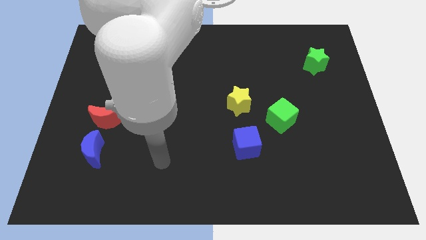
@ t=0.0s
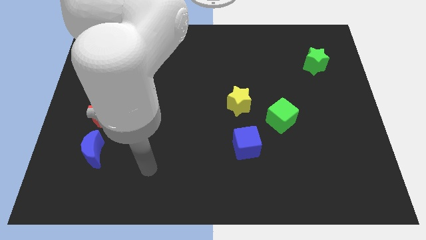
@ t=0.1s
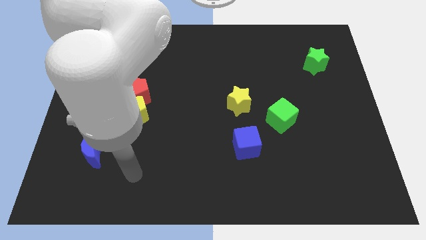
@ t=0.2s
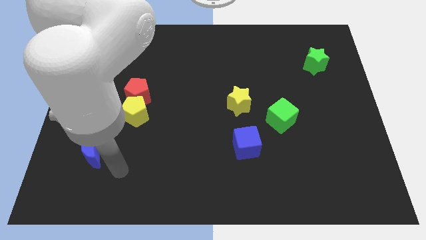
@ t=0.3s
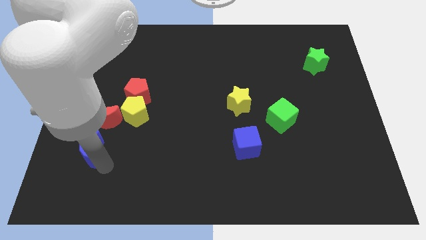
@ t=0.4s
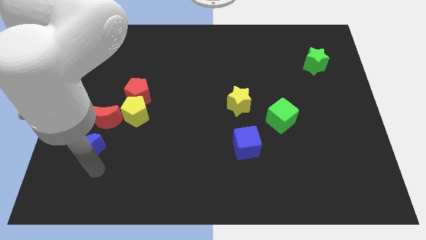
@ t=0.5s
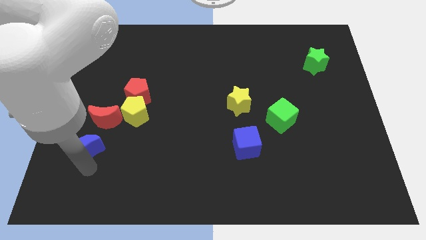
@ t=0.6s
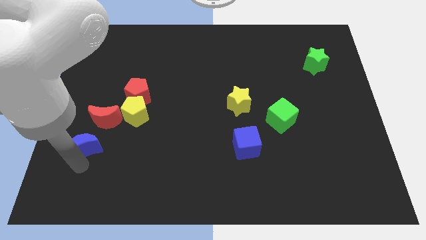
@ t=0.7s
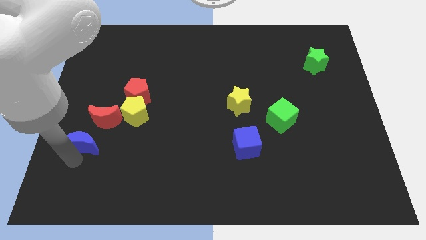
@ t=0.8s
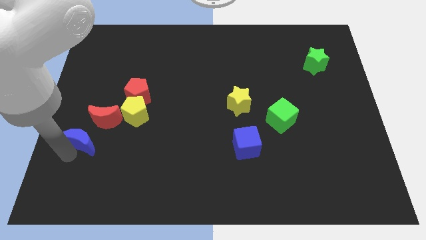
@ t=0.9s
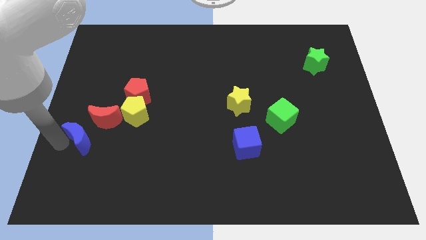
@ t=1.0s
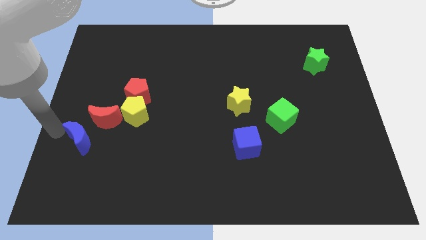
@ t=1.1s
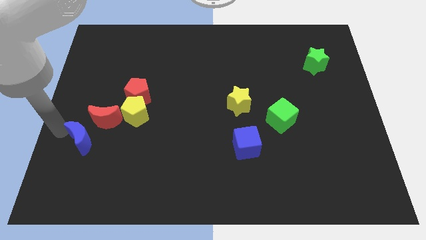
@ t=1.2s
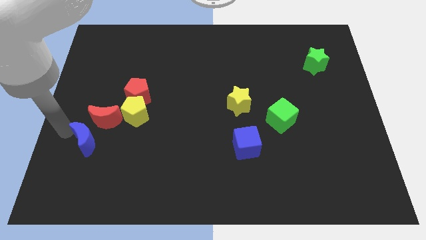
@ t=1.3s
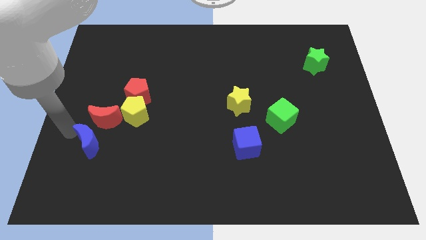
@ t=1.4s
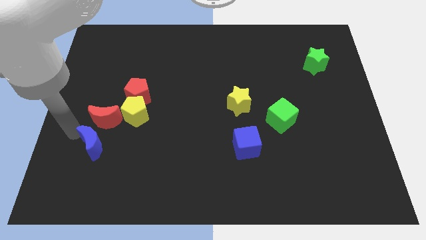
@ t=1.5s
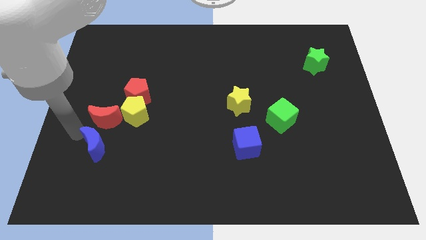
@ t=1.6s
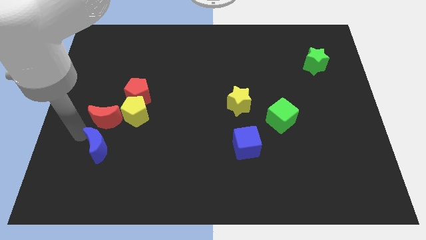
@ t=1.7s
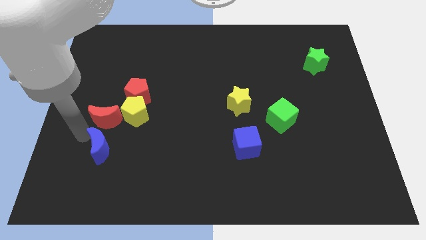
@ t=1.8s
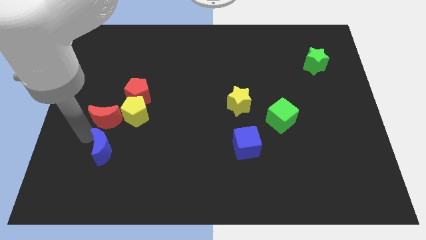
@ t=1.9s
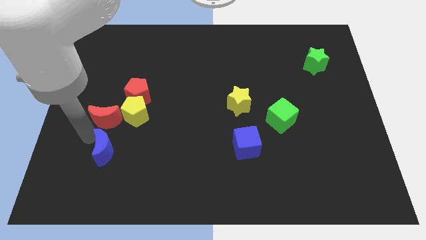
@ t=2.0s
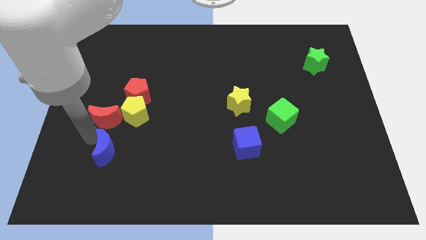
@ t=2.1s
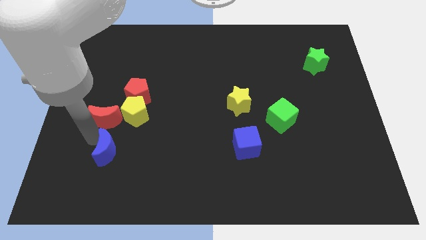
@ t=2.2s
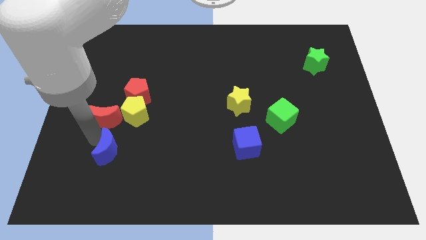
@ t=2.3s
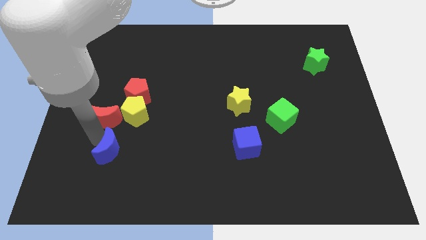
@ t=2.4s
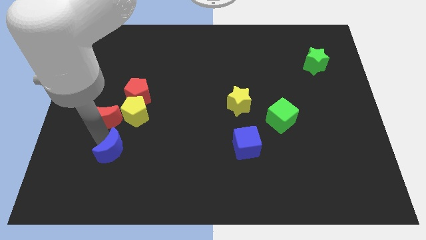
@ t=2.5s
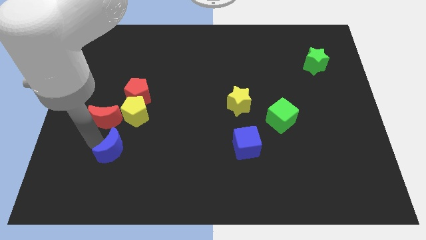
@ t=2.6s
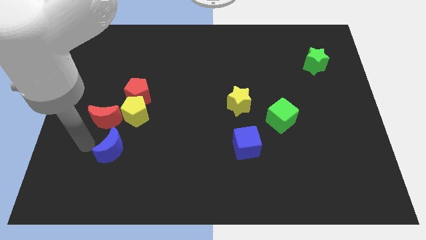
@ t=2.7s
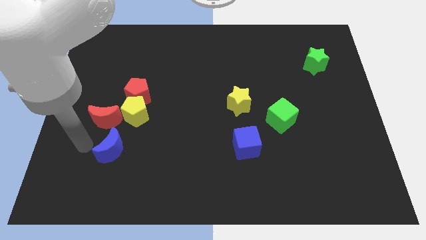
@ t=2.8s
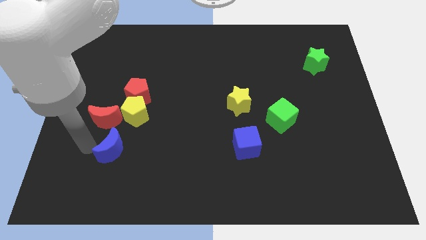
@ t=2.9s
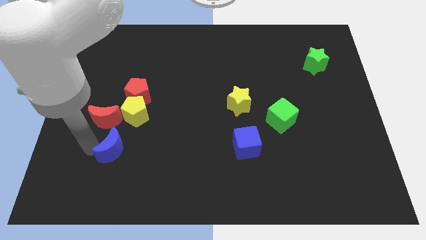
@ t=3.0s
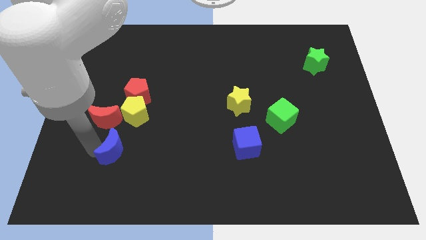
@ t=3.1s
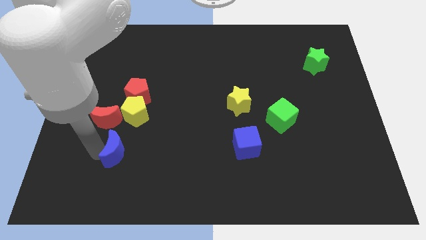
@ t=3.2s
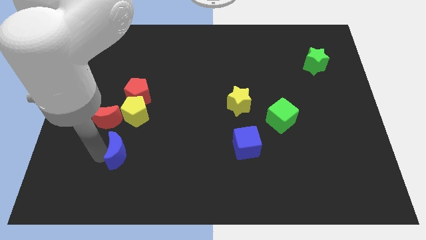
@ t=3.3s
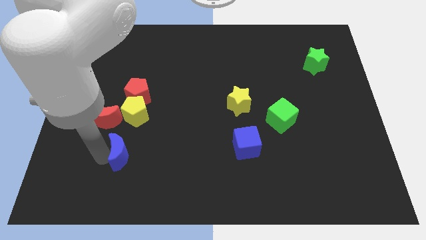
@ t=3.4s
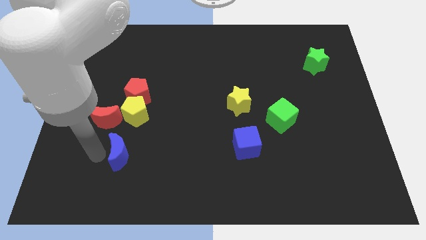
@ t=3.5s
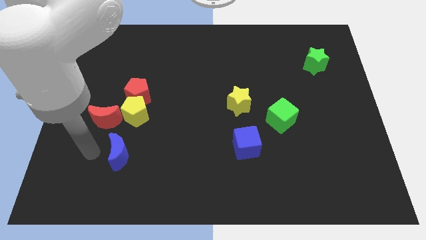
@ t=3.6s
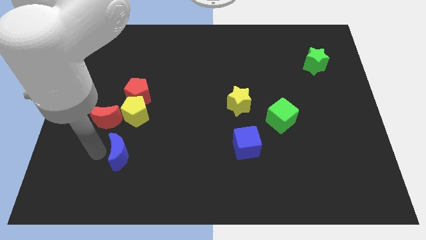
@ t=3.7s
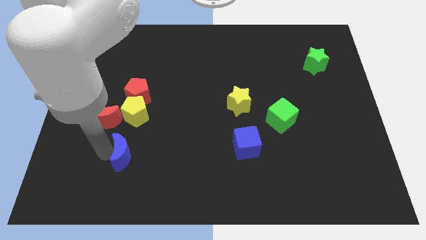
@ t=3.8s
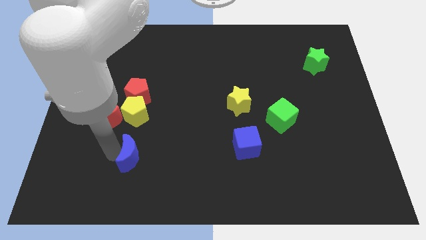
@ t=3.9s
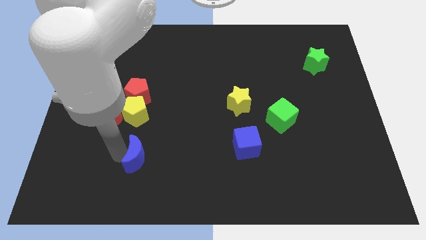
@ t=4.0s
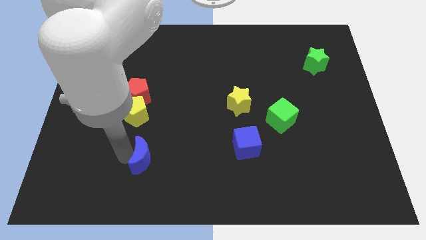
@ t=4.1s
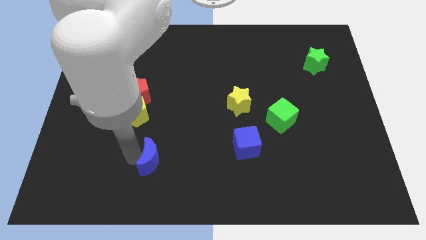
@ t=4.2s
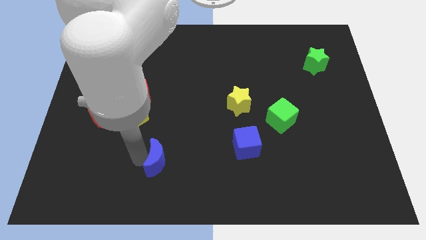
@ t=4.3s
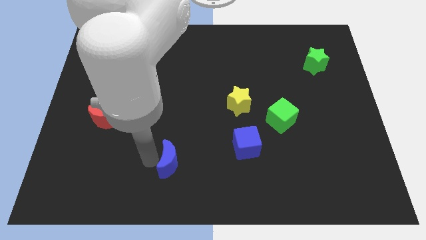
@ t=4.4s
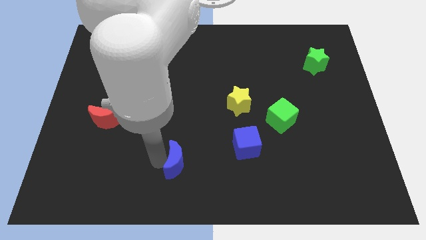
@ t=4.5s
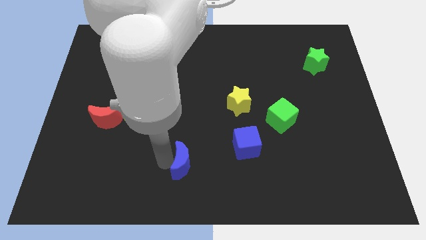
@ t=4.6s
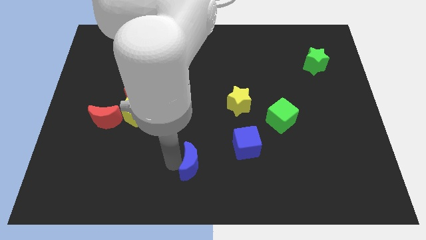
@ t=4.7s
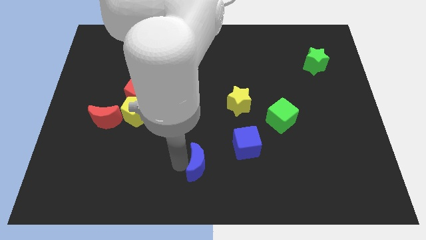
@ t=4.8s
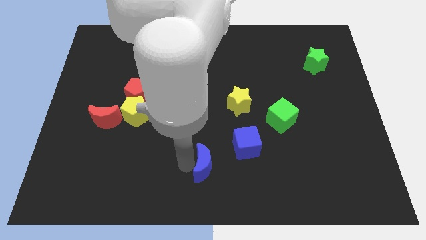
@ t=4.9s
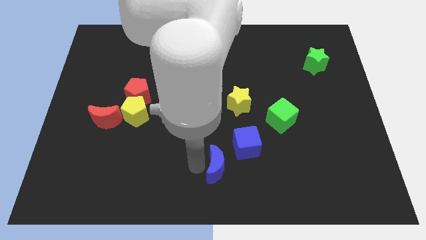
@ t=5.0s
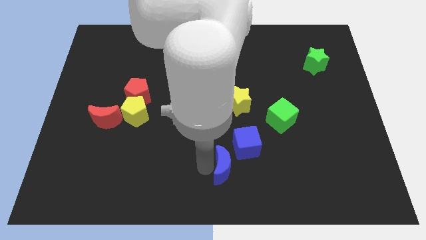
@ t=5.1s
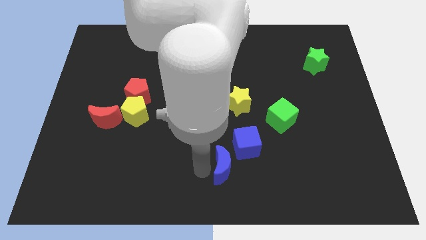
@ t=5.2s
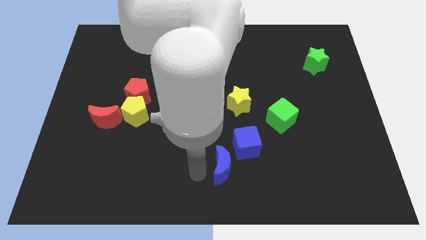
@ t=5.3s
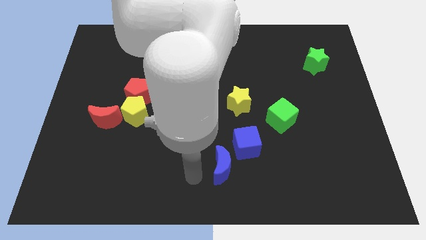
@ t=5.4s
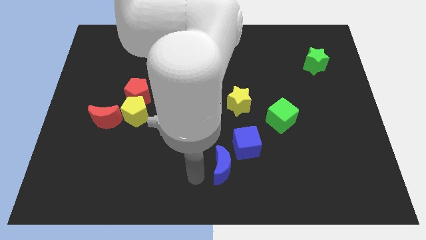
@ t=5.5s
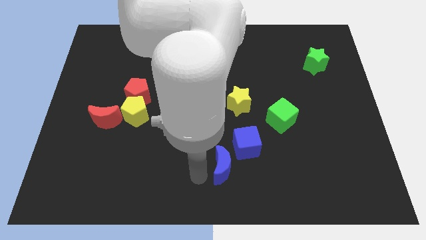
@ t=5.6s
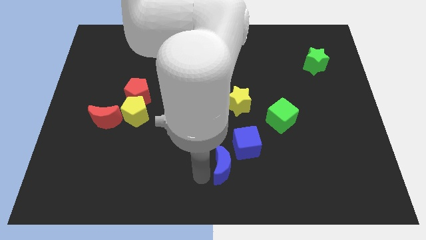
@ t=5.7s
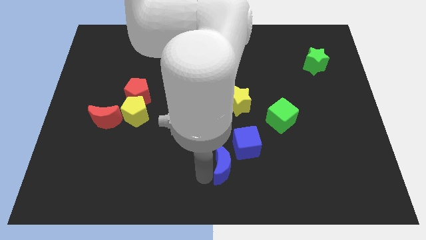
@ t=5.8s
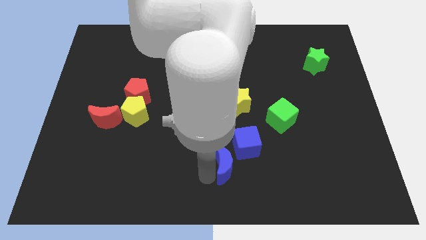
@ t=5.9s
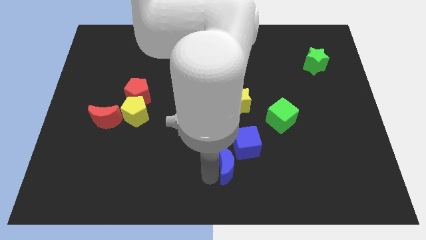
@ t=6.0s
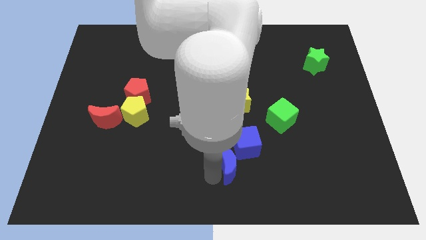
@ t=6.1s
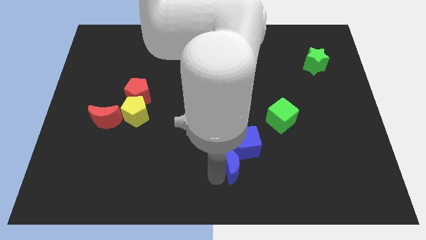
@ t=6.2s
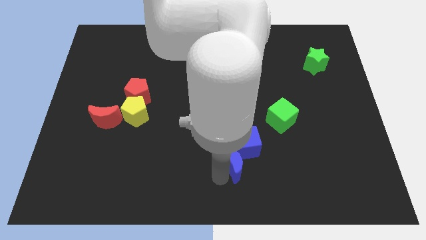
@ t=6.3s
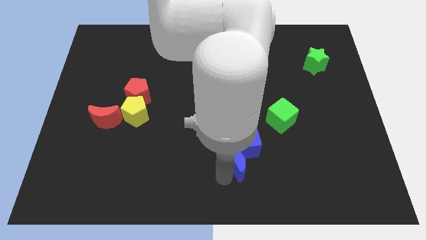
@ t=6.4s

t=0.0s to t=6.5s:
slide the blue moon to the bottom side of the yellow star

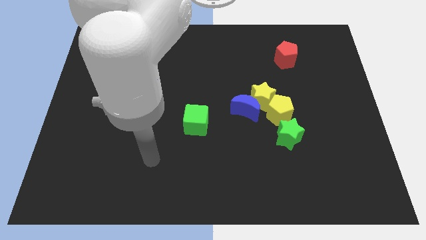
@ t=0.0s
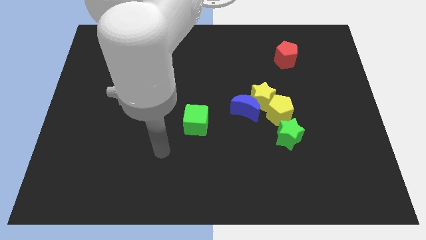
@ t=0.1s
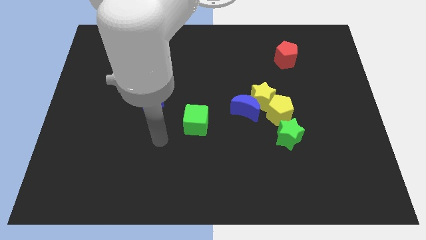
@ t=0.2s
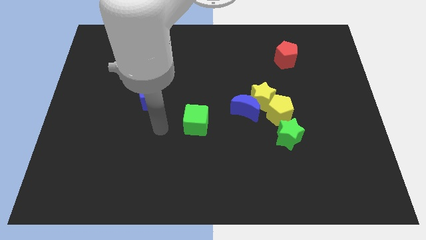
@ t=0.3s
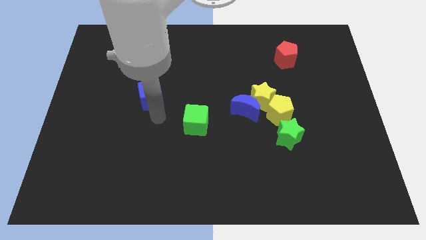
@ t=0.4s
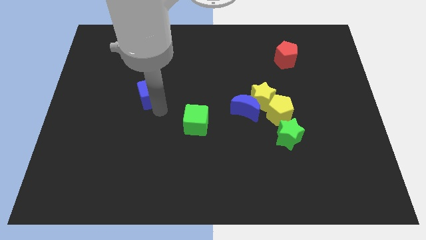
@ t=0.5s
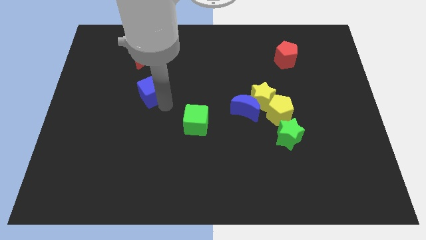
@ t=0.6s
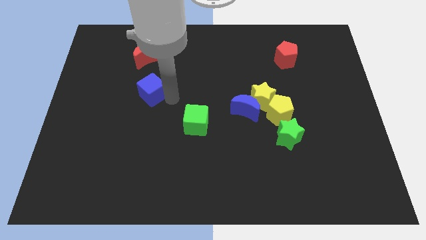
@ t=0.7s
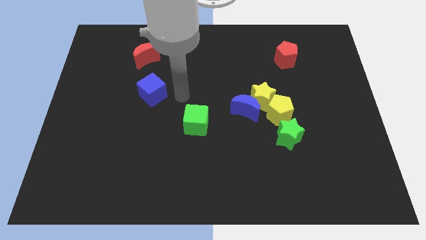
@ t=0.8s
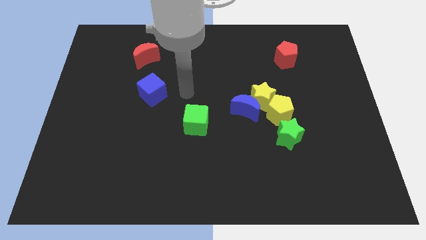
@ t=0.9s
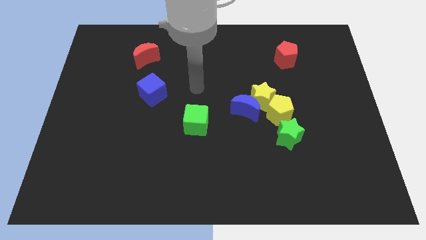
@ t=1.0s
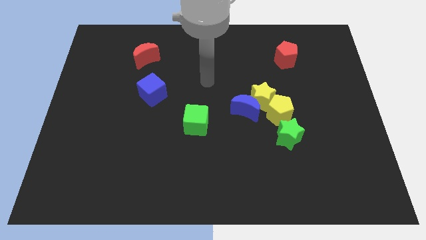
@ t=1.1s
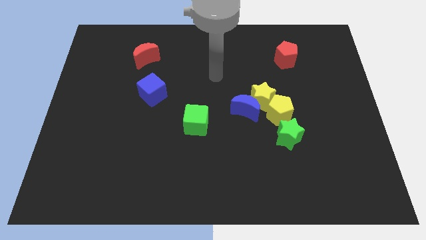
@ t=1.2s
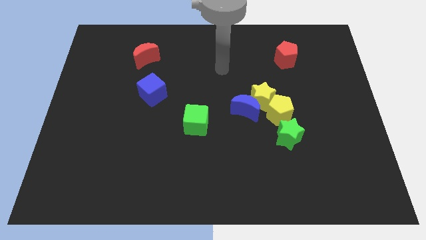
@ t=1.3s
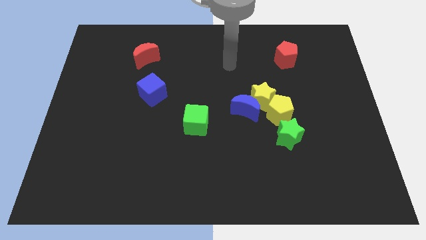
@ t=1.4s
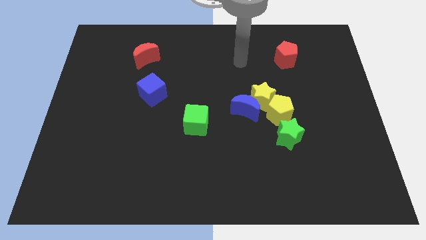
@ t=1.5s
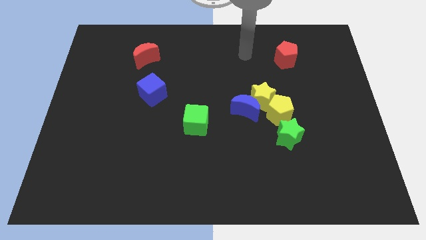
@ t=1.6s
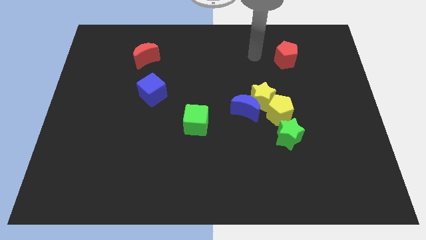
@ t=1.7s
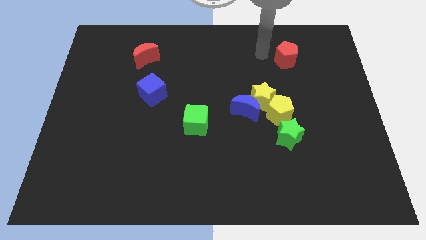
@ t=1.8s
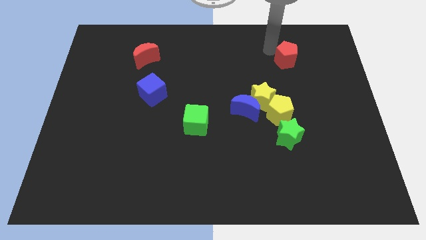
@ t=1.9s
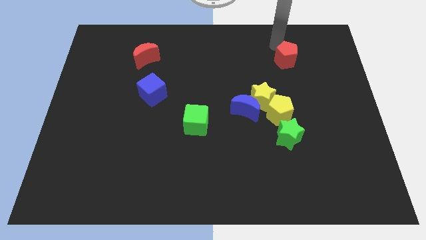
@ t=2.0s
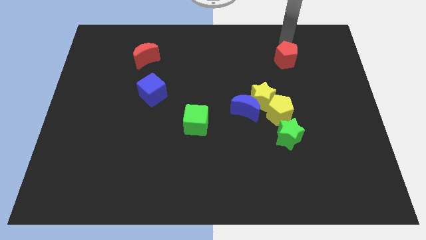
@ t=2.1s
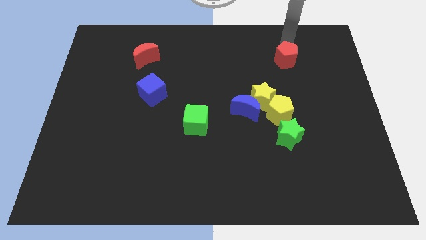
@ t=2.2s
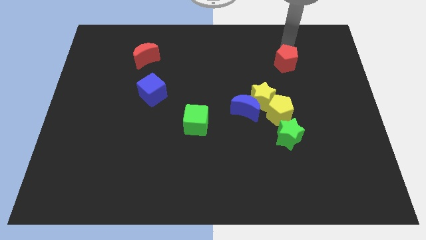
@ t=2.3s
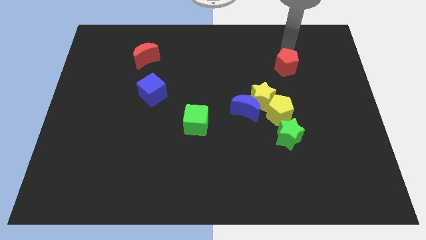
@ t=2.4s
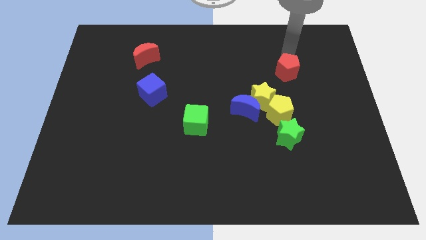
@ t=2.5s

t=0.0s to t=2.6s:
push the red pentagon to the top right of the yellow star
